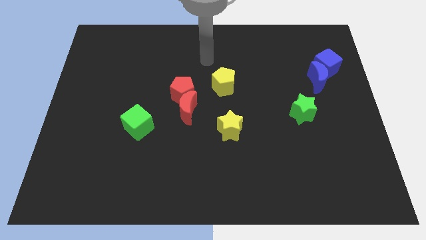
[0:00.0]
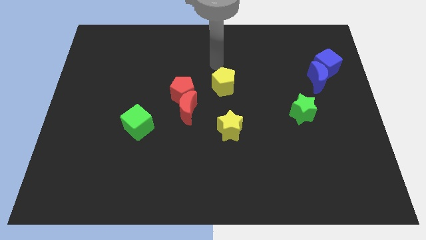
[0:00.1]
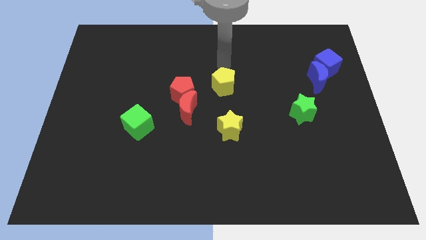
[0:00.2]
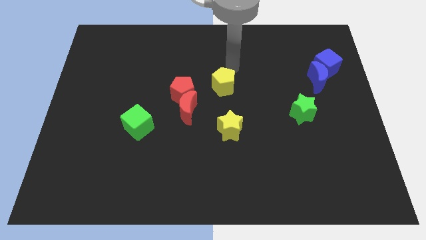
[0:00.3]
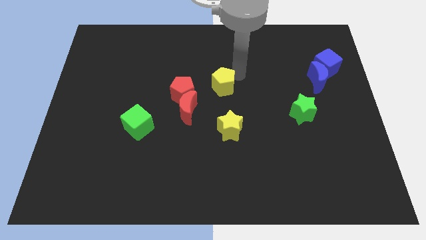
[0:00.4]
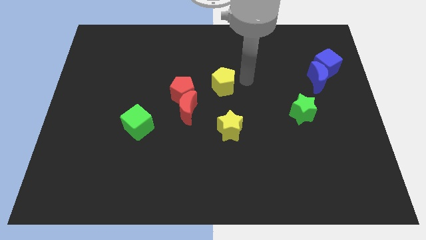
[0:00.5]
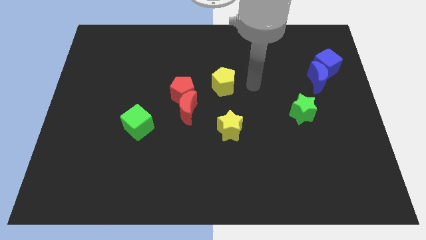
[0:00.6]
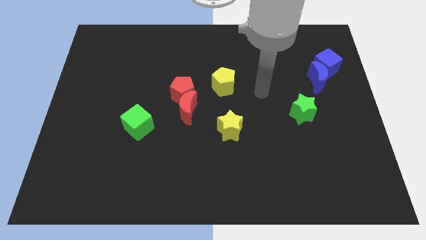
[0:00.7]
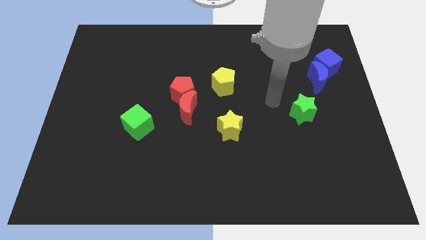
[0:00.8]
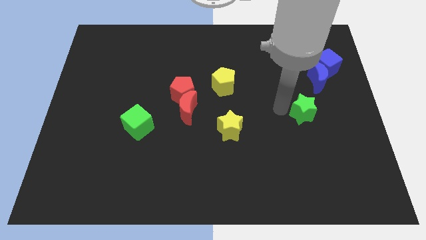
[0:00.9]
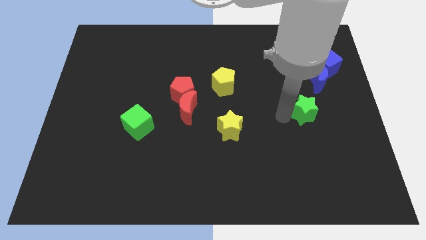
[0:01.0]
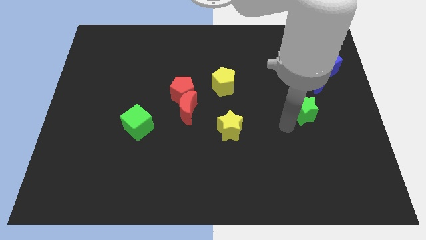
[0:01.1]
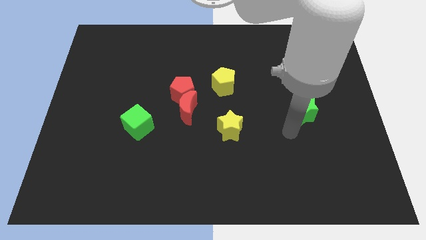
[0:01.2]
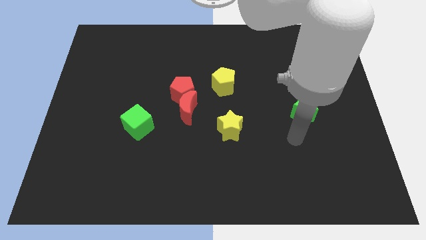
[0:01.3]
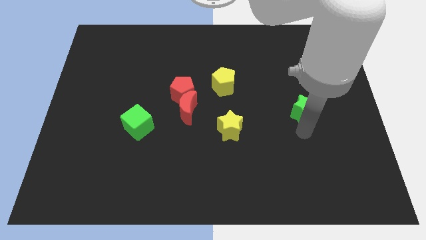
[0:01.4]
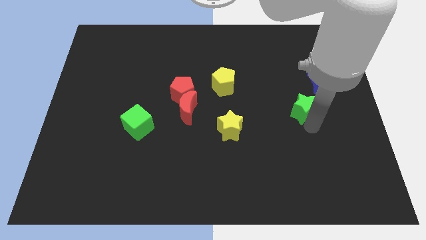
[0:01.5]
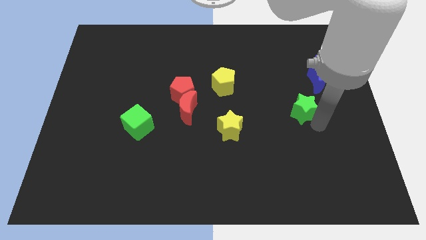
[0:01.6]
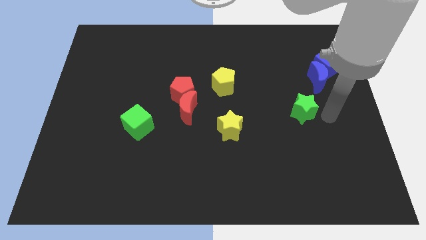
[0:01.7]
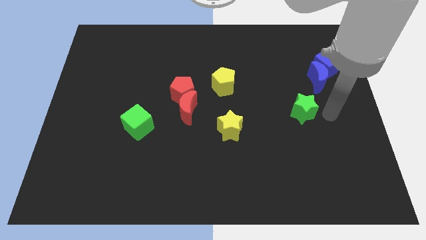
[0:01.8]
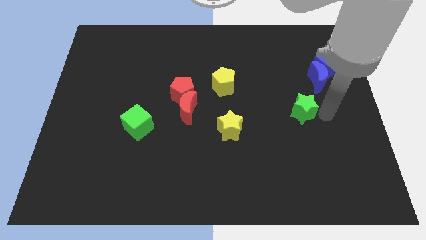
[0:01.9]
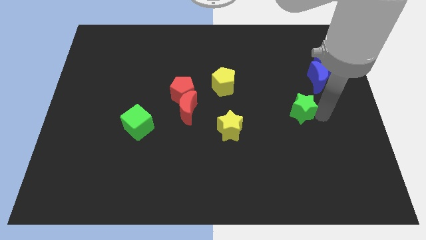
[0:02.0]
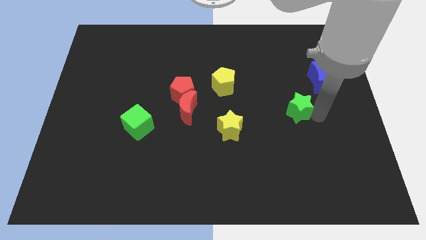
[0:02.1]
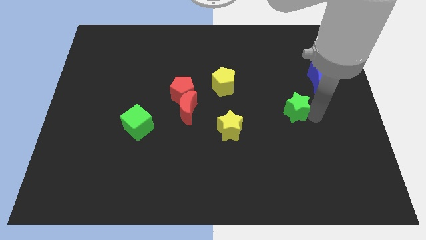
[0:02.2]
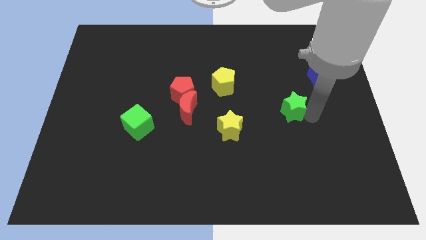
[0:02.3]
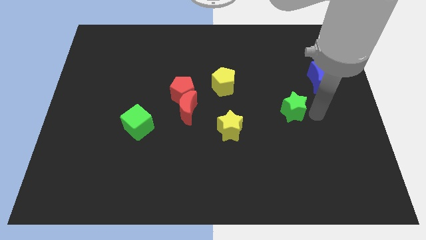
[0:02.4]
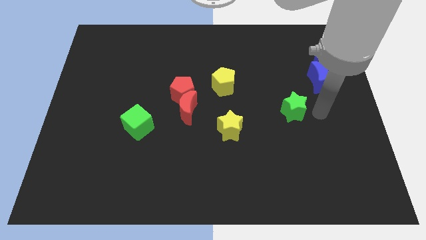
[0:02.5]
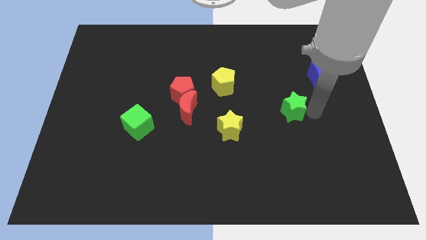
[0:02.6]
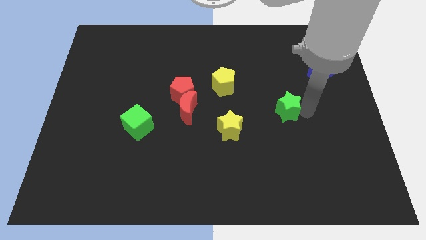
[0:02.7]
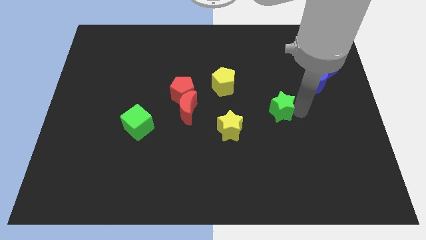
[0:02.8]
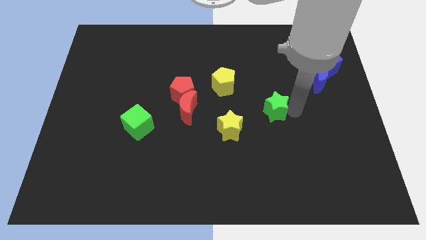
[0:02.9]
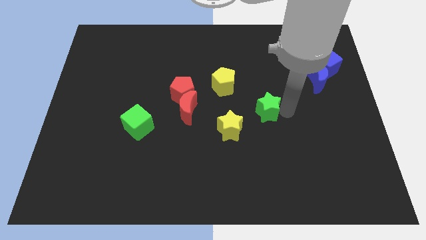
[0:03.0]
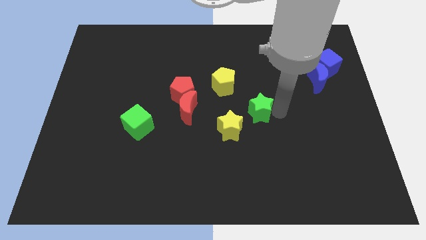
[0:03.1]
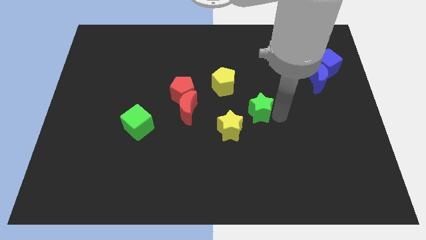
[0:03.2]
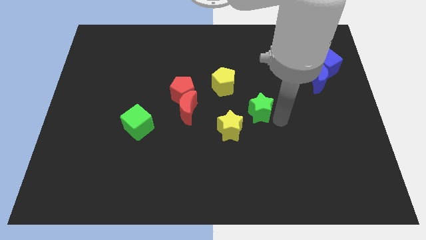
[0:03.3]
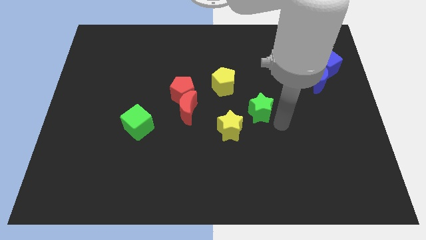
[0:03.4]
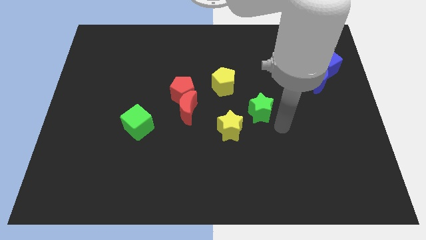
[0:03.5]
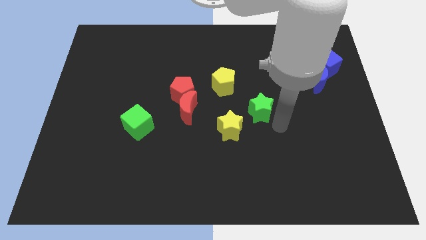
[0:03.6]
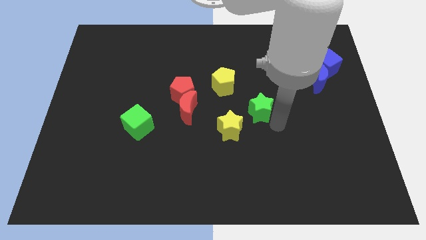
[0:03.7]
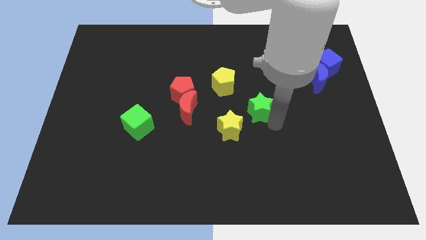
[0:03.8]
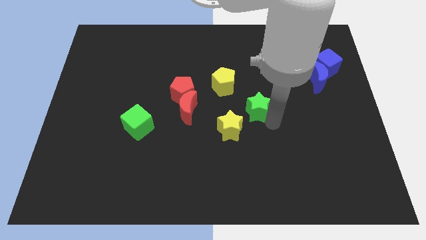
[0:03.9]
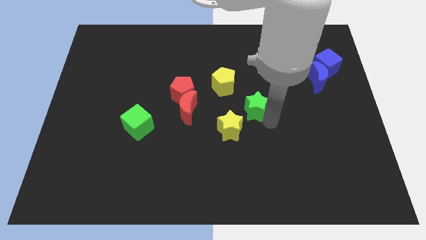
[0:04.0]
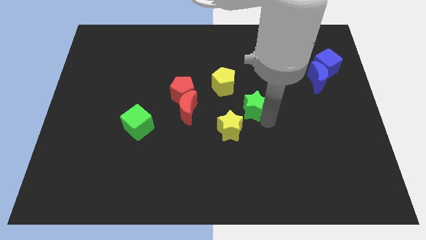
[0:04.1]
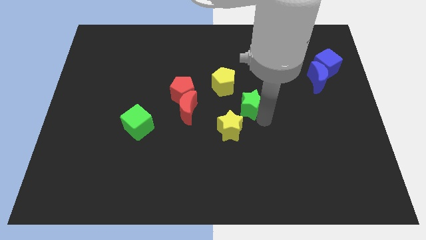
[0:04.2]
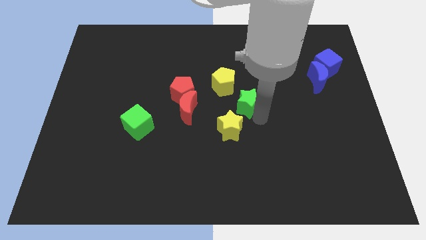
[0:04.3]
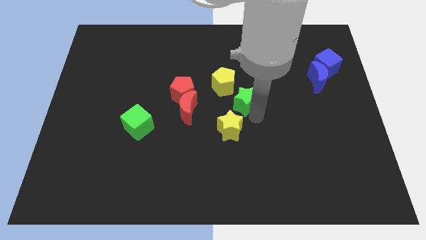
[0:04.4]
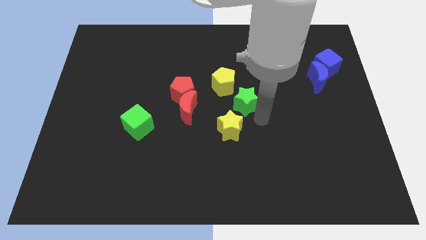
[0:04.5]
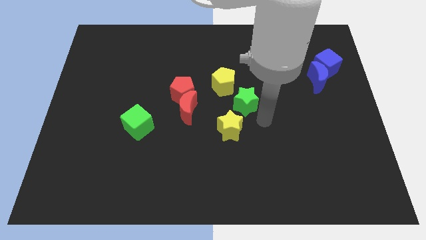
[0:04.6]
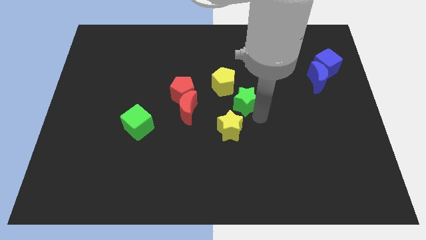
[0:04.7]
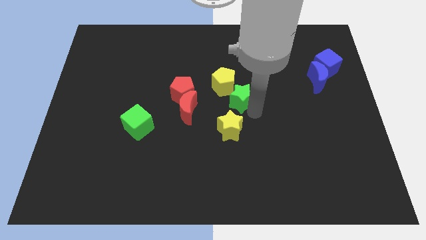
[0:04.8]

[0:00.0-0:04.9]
move the green star next to the yellow pentagon

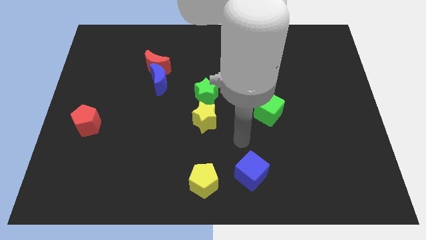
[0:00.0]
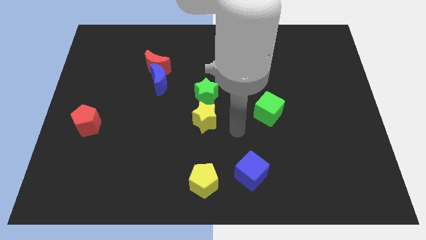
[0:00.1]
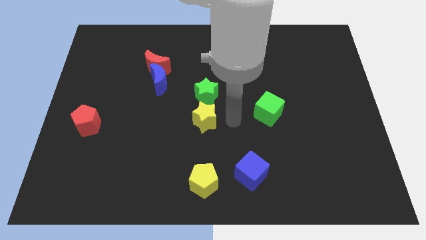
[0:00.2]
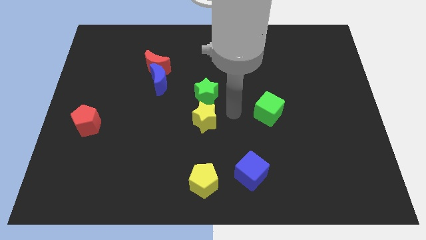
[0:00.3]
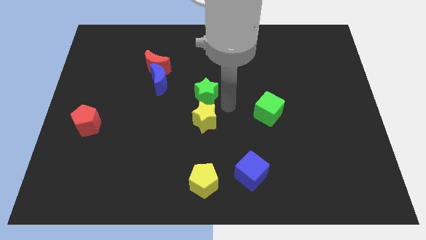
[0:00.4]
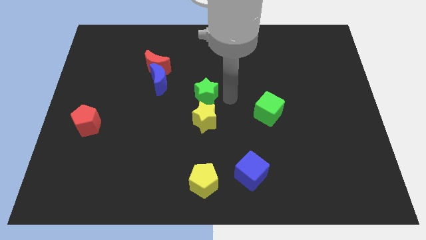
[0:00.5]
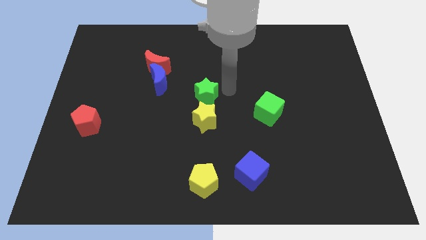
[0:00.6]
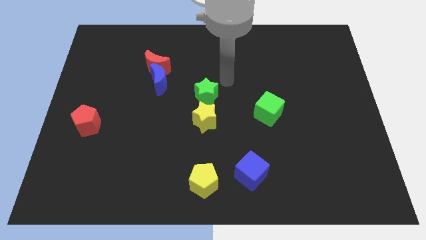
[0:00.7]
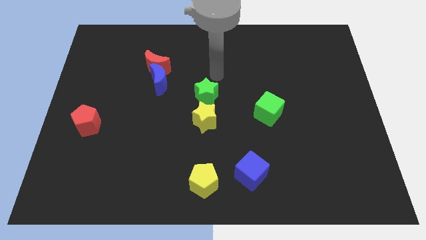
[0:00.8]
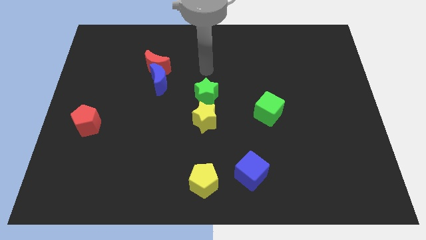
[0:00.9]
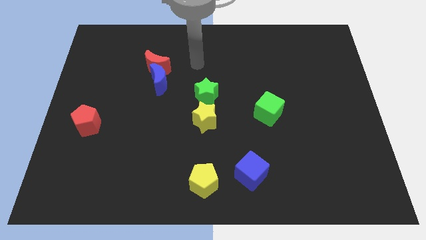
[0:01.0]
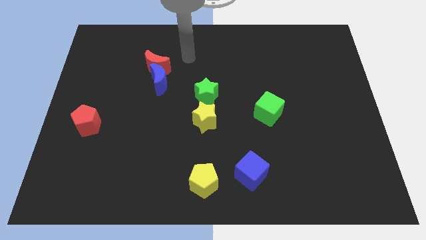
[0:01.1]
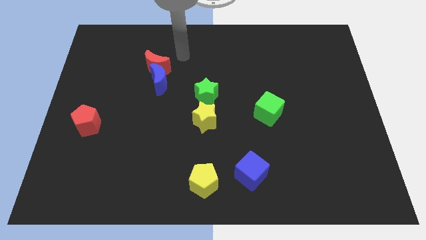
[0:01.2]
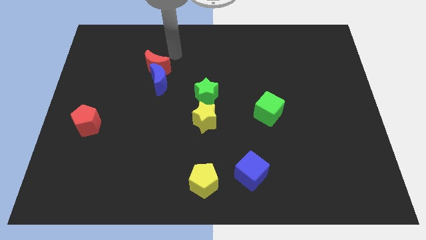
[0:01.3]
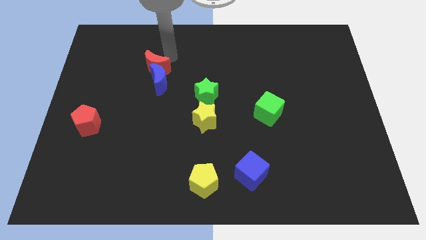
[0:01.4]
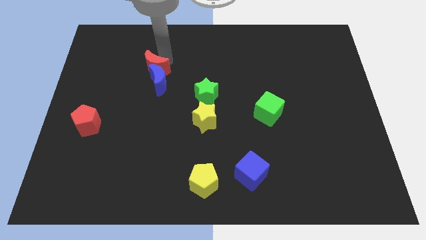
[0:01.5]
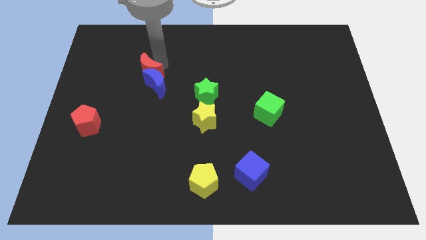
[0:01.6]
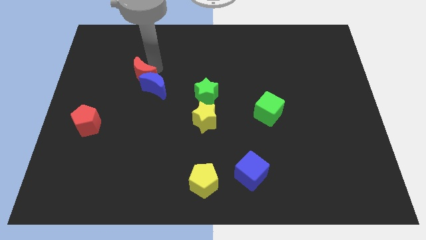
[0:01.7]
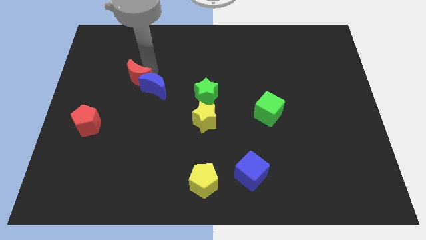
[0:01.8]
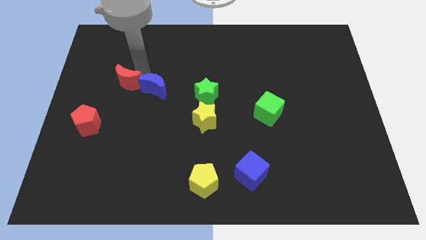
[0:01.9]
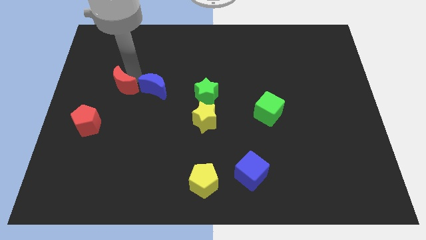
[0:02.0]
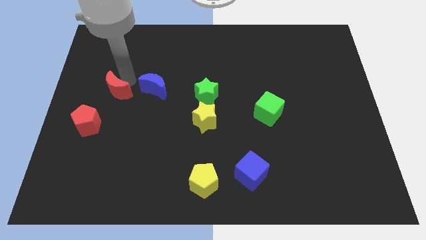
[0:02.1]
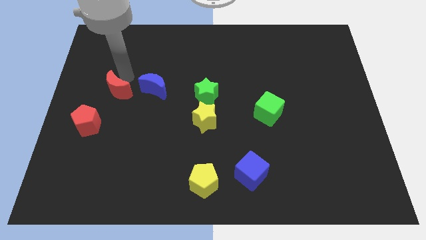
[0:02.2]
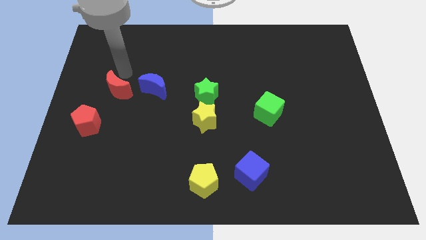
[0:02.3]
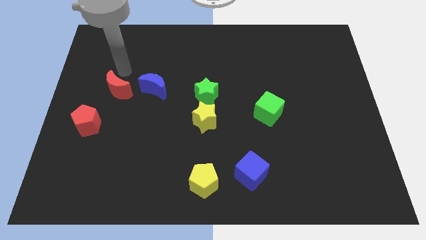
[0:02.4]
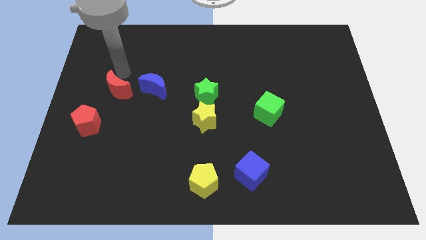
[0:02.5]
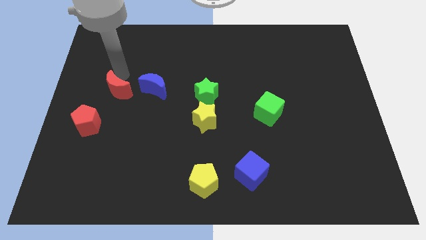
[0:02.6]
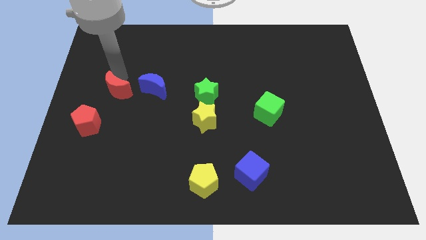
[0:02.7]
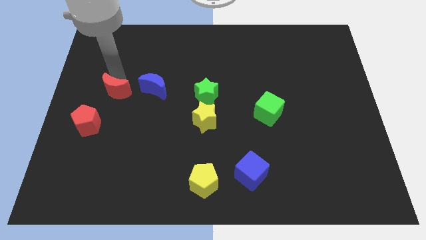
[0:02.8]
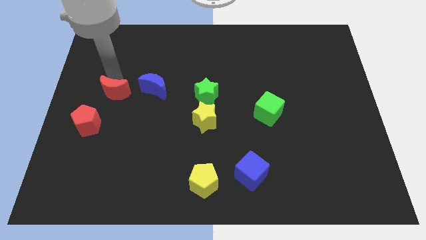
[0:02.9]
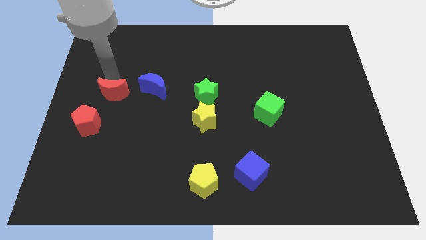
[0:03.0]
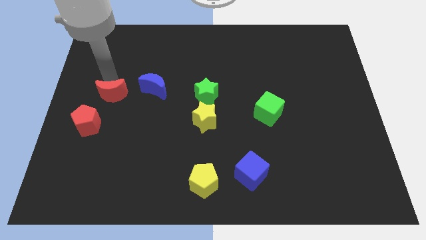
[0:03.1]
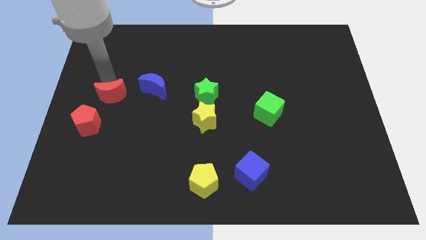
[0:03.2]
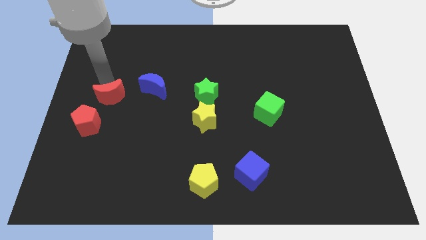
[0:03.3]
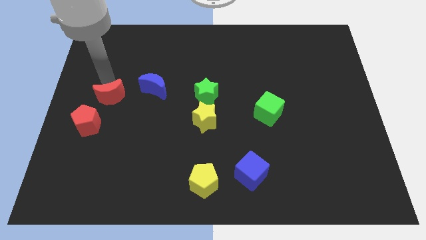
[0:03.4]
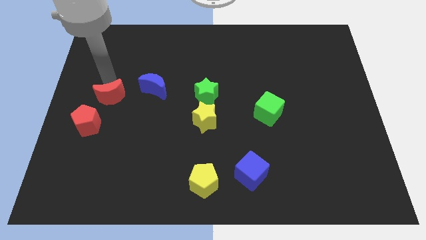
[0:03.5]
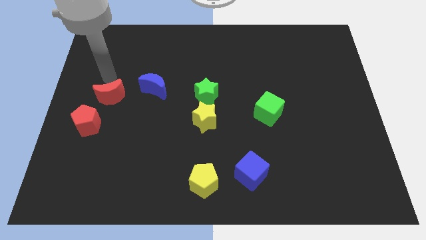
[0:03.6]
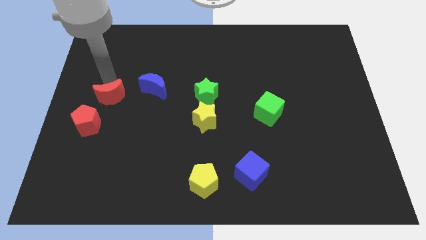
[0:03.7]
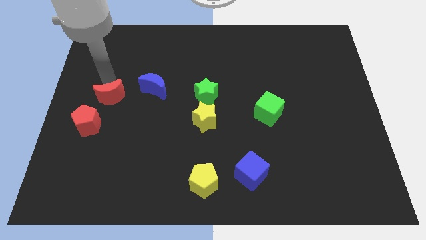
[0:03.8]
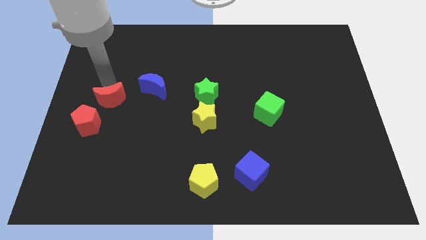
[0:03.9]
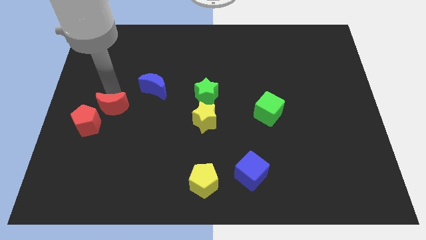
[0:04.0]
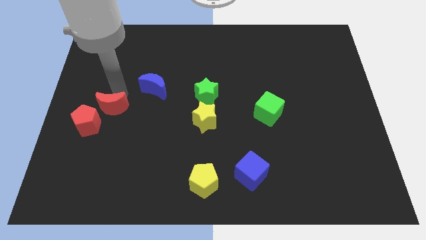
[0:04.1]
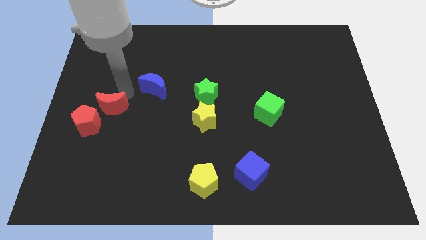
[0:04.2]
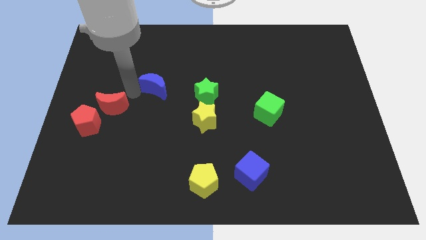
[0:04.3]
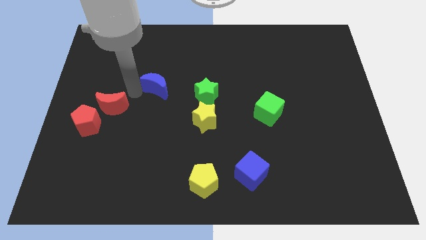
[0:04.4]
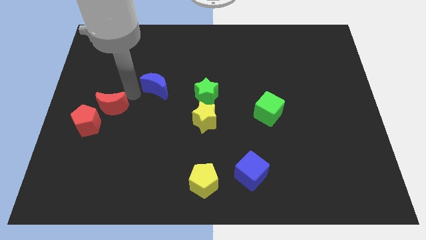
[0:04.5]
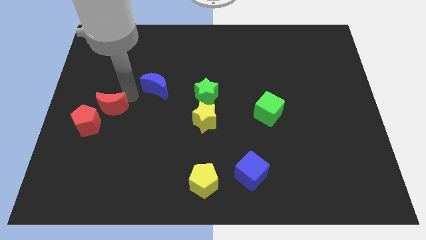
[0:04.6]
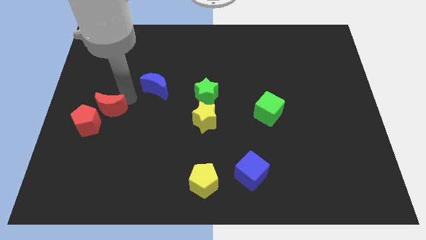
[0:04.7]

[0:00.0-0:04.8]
slide the red moon close to the red pentagon
